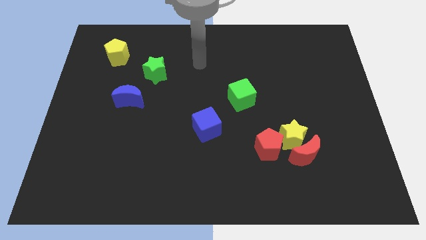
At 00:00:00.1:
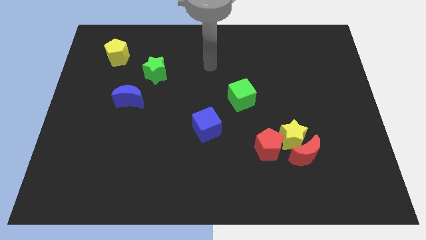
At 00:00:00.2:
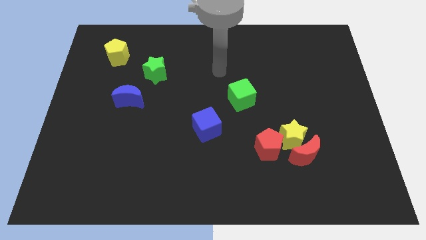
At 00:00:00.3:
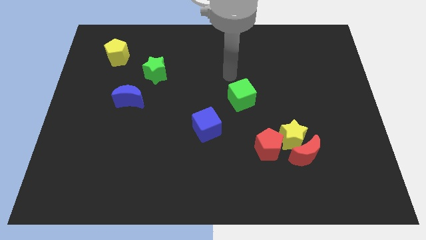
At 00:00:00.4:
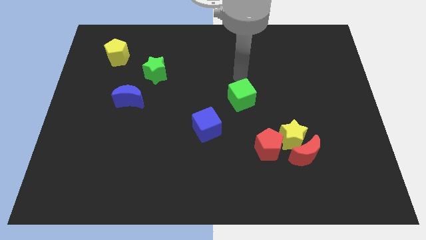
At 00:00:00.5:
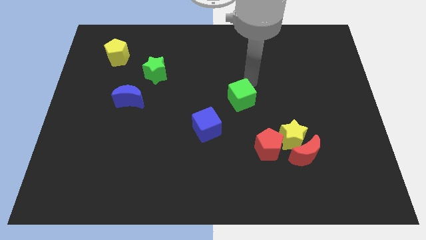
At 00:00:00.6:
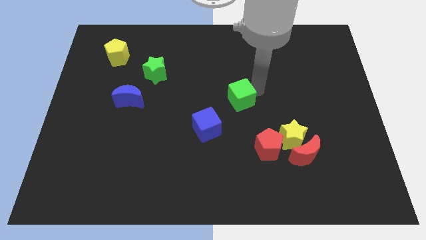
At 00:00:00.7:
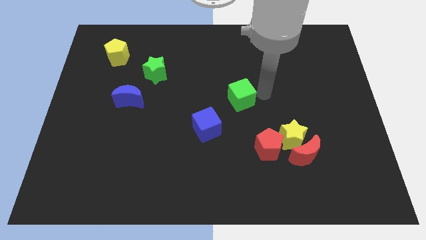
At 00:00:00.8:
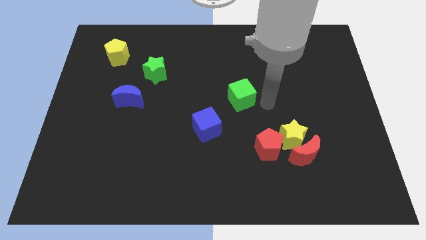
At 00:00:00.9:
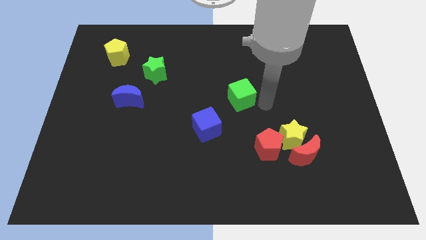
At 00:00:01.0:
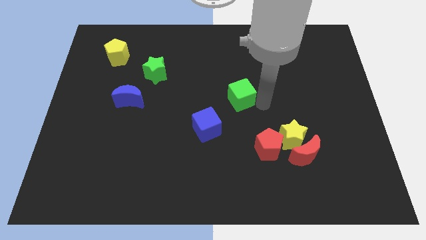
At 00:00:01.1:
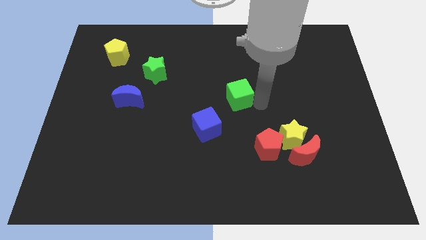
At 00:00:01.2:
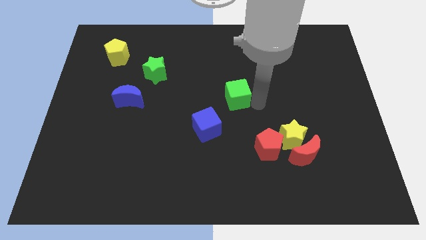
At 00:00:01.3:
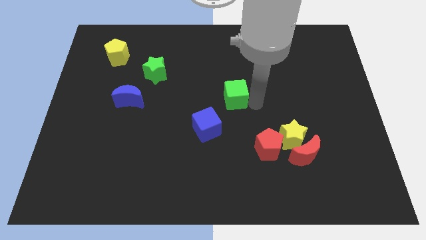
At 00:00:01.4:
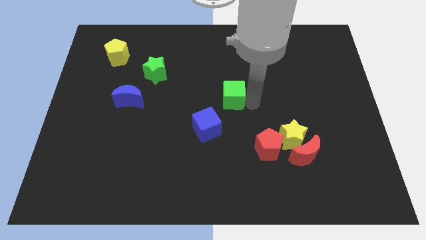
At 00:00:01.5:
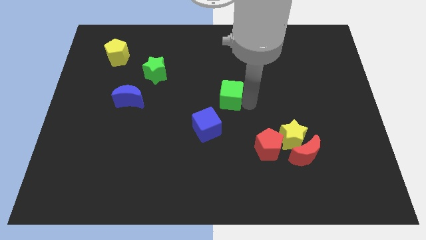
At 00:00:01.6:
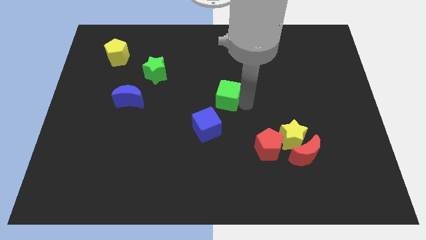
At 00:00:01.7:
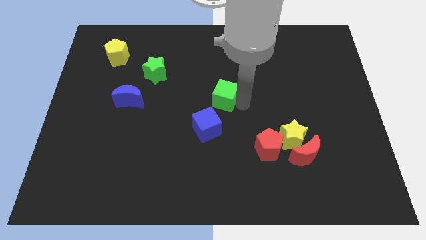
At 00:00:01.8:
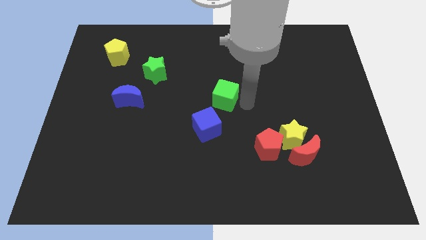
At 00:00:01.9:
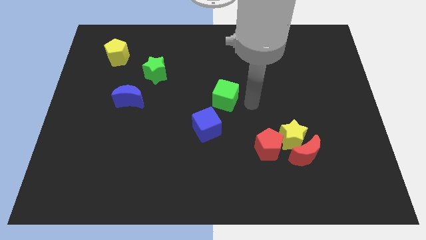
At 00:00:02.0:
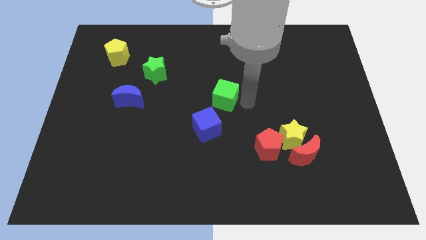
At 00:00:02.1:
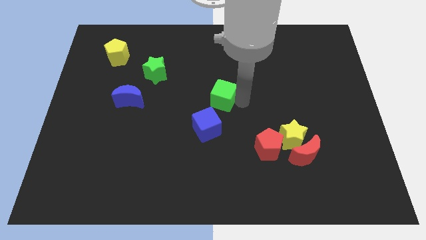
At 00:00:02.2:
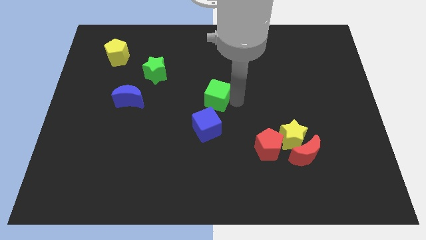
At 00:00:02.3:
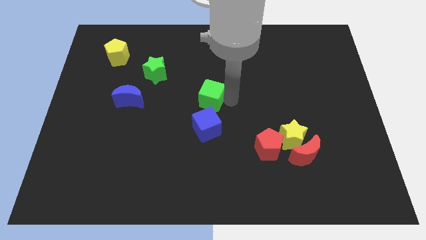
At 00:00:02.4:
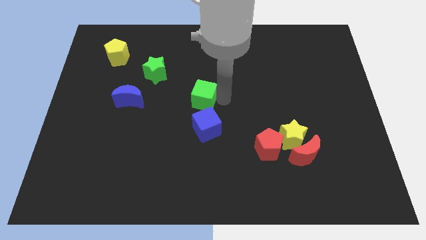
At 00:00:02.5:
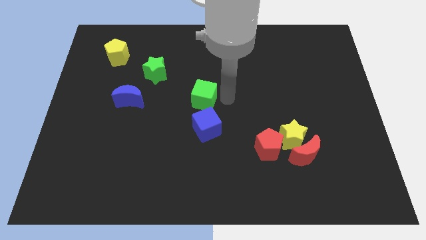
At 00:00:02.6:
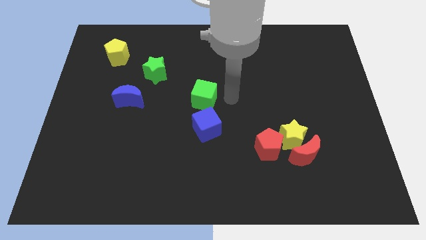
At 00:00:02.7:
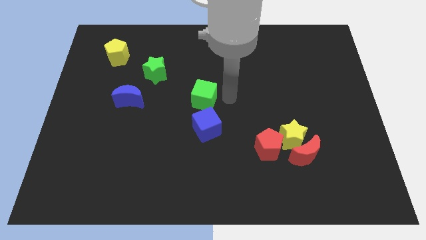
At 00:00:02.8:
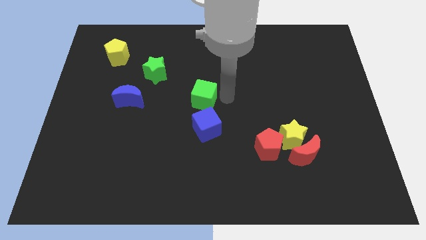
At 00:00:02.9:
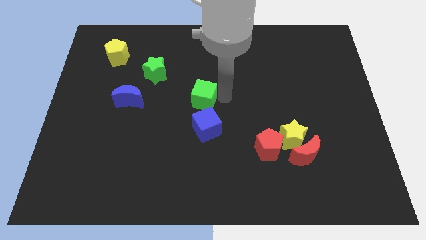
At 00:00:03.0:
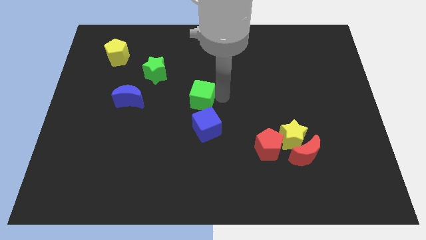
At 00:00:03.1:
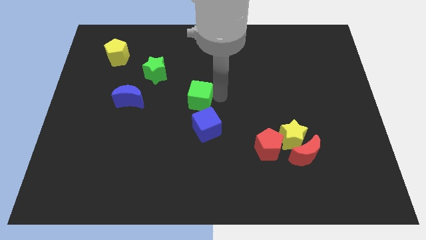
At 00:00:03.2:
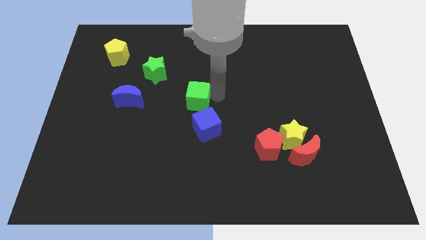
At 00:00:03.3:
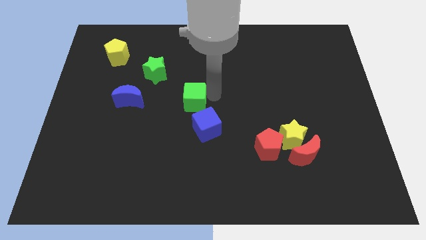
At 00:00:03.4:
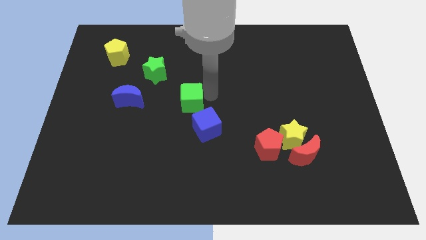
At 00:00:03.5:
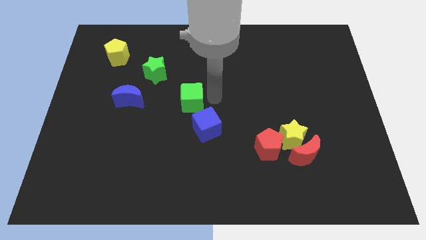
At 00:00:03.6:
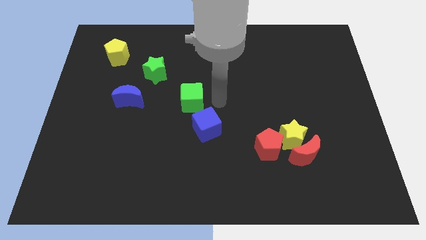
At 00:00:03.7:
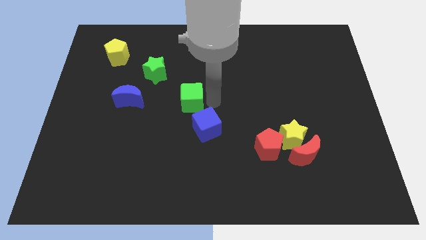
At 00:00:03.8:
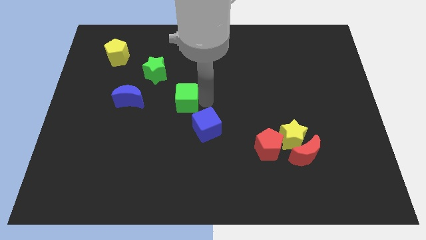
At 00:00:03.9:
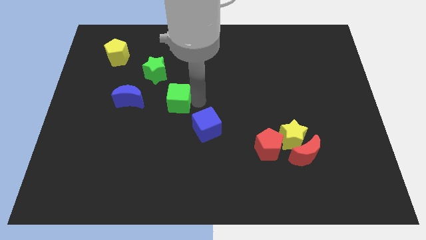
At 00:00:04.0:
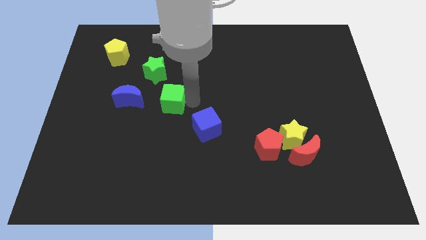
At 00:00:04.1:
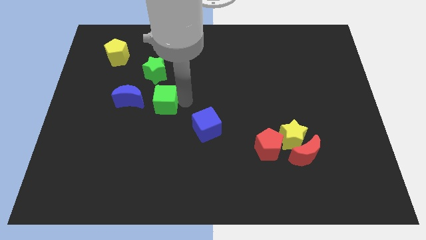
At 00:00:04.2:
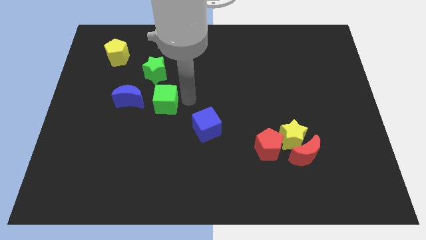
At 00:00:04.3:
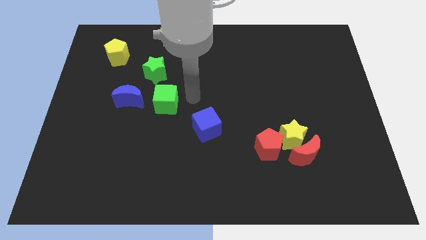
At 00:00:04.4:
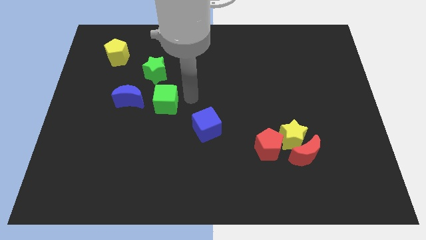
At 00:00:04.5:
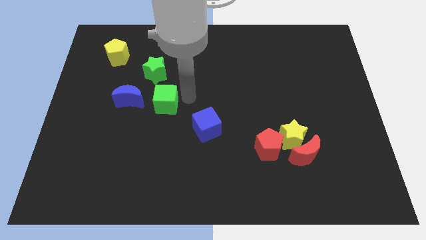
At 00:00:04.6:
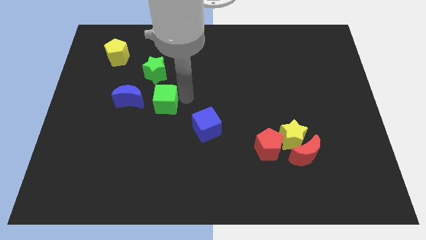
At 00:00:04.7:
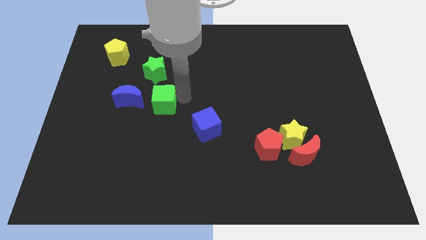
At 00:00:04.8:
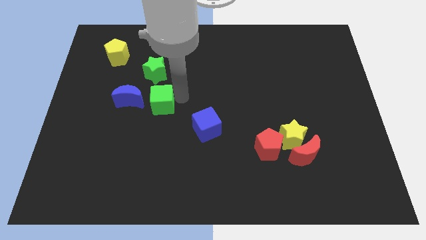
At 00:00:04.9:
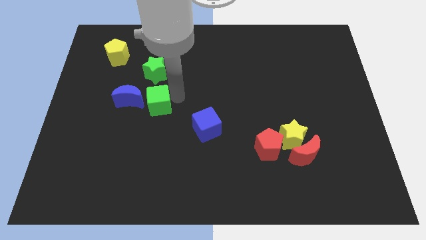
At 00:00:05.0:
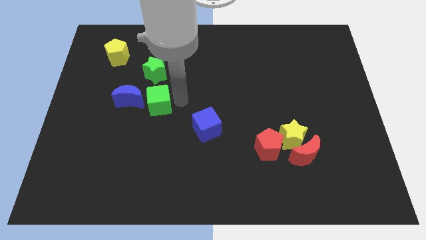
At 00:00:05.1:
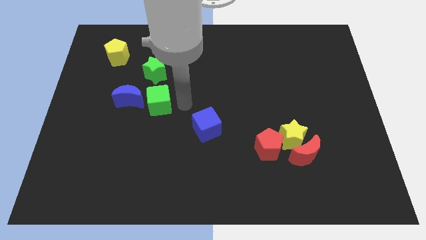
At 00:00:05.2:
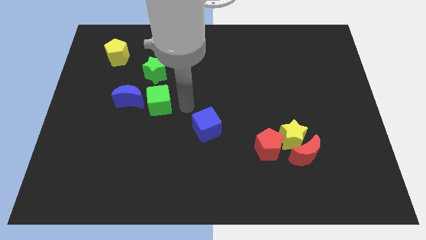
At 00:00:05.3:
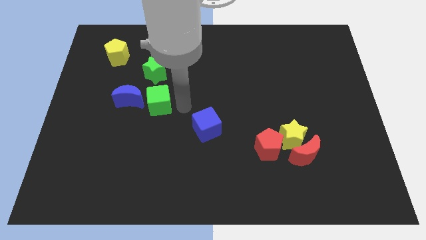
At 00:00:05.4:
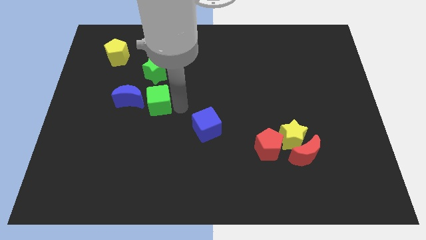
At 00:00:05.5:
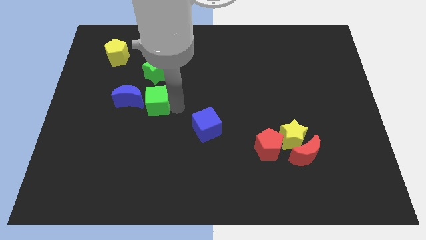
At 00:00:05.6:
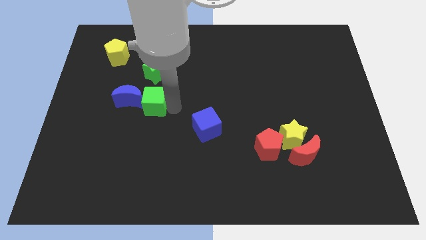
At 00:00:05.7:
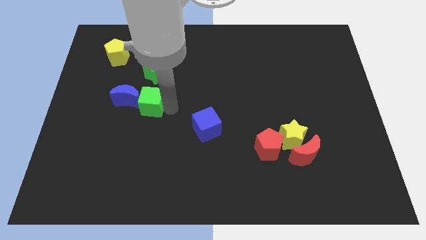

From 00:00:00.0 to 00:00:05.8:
move the green cube close to the blue moon
